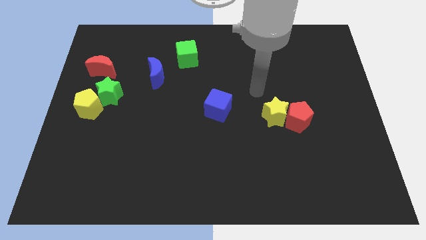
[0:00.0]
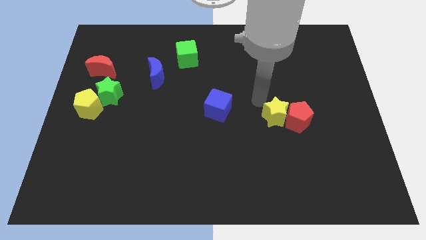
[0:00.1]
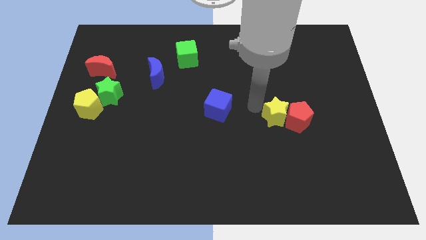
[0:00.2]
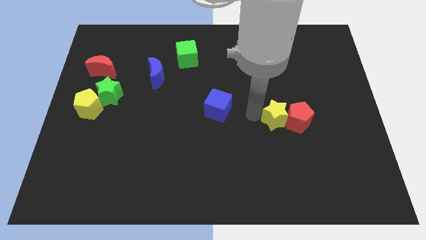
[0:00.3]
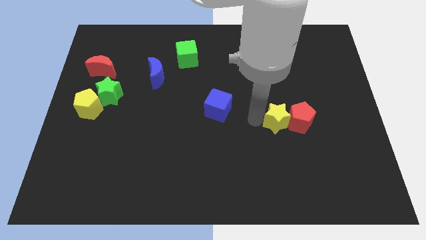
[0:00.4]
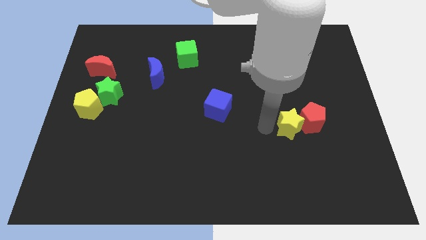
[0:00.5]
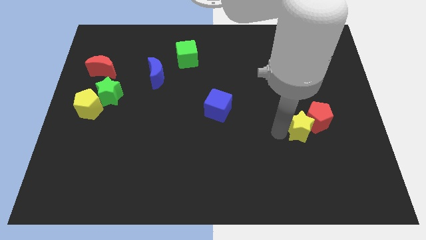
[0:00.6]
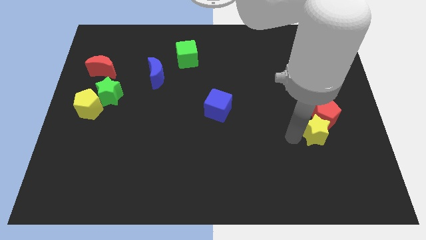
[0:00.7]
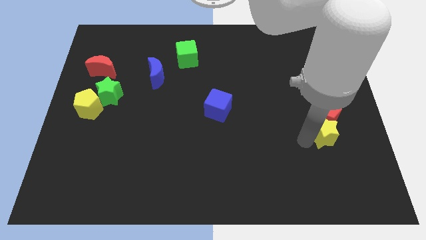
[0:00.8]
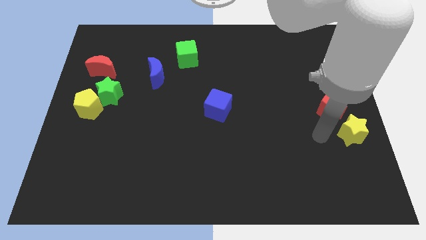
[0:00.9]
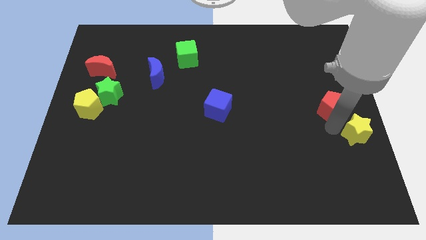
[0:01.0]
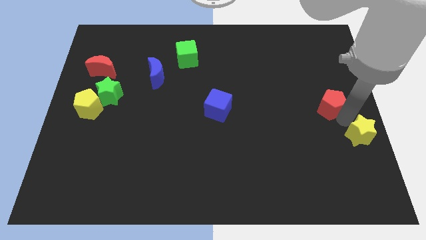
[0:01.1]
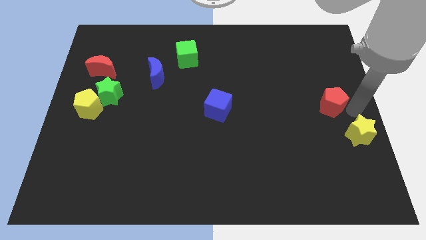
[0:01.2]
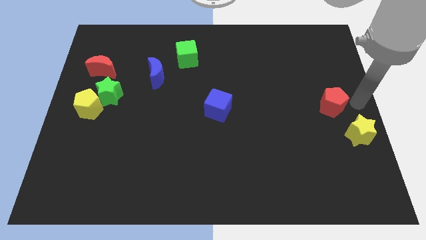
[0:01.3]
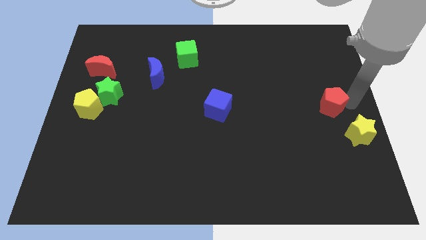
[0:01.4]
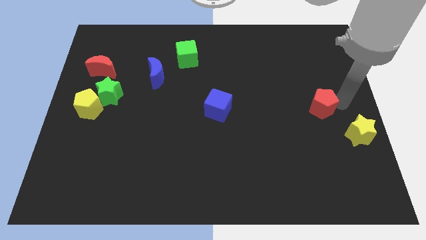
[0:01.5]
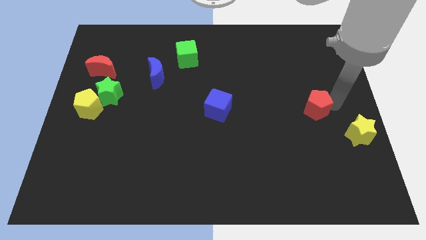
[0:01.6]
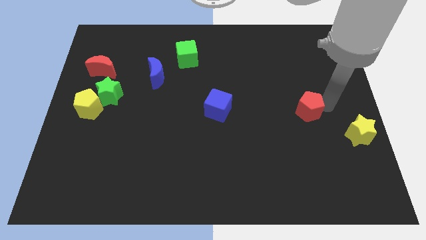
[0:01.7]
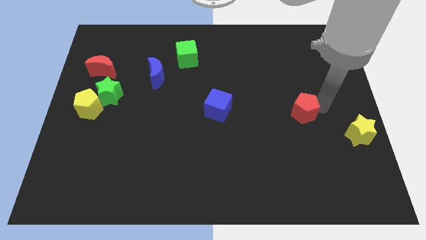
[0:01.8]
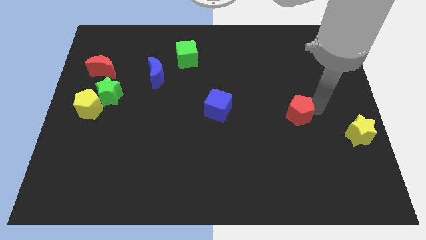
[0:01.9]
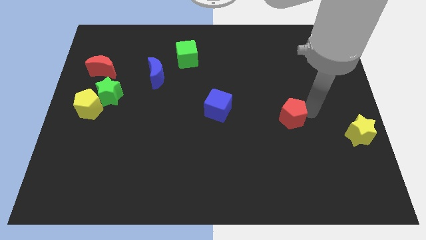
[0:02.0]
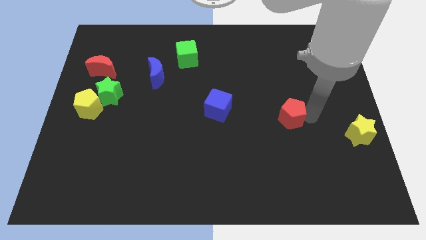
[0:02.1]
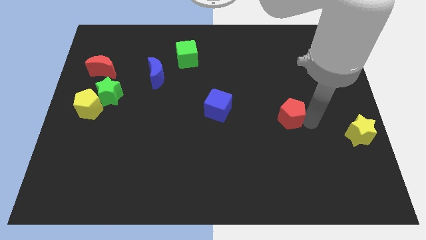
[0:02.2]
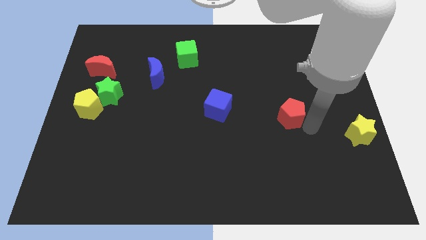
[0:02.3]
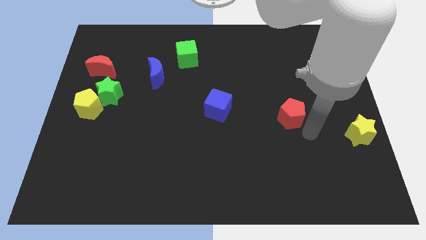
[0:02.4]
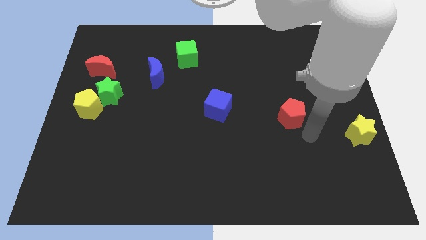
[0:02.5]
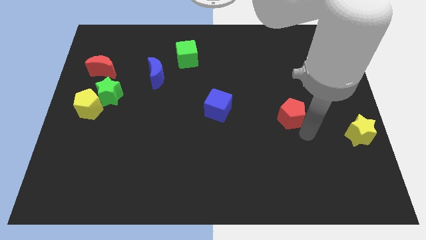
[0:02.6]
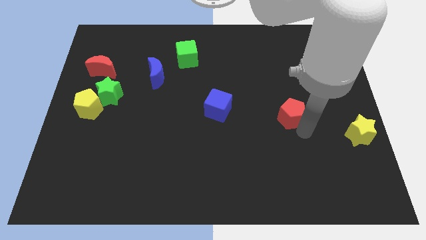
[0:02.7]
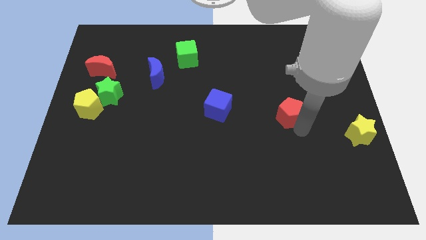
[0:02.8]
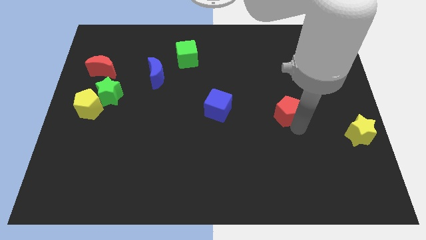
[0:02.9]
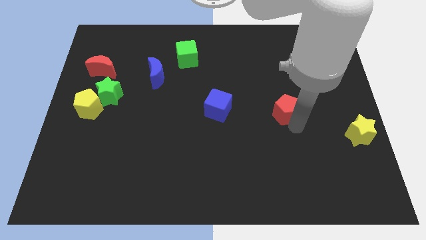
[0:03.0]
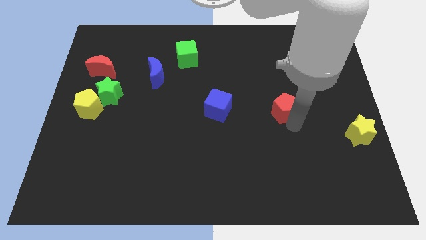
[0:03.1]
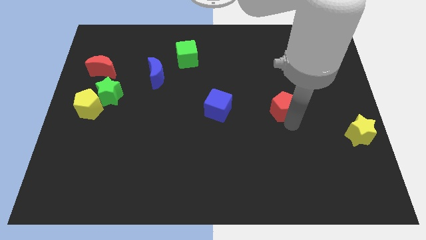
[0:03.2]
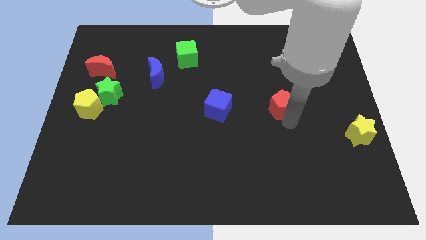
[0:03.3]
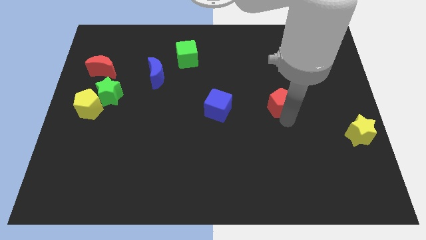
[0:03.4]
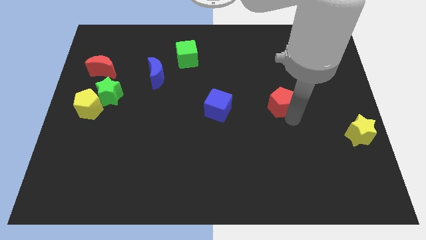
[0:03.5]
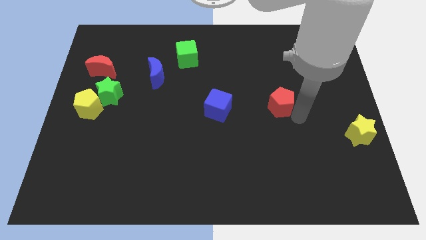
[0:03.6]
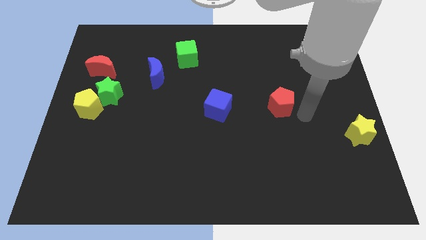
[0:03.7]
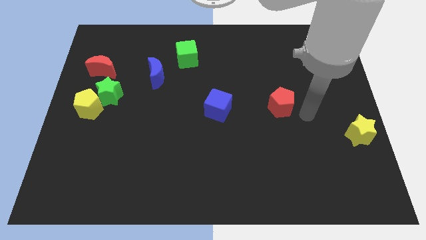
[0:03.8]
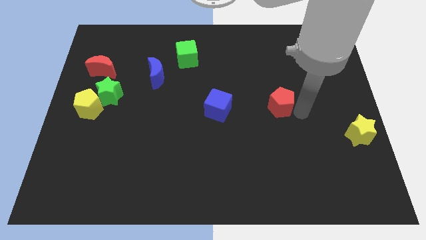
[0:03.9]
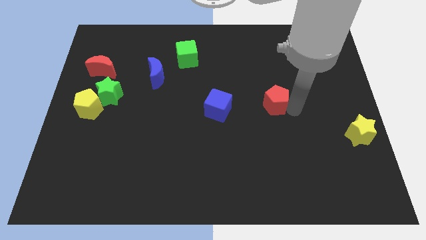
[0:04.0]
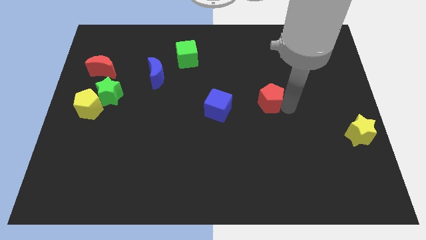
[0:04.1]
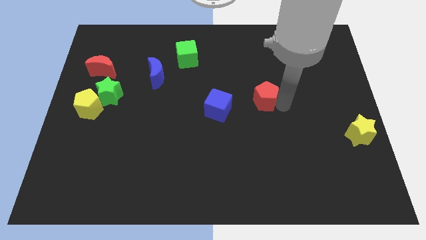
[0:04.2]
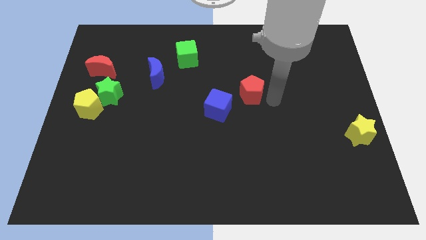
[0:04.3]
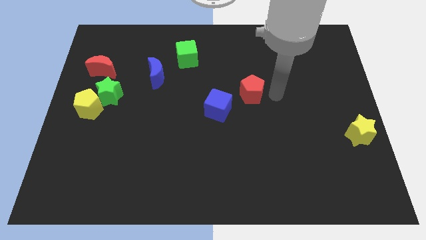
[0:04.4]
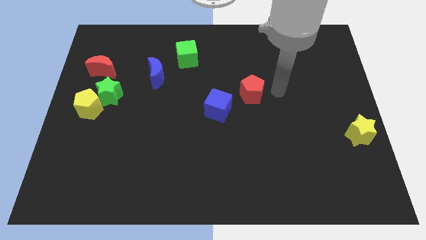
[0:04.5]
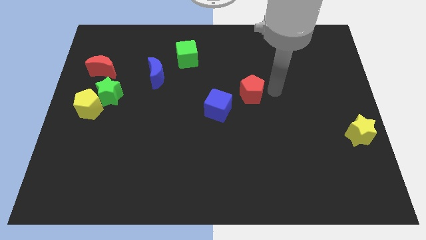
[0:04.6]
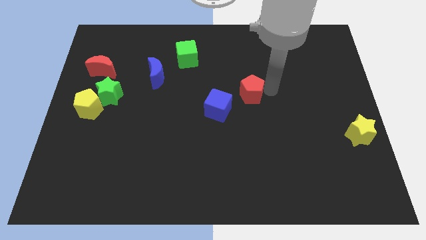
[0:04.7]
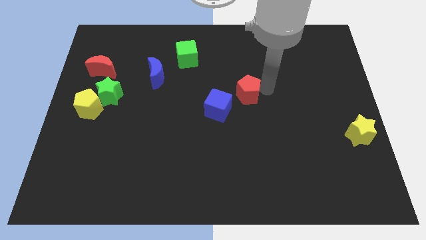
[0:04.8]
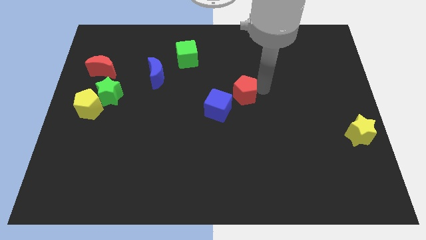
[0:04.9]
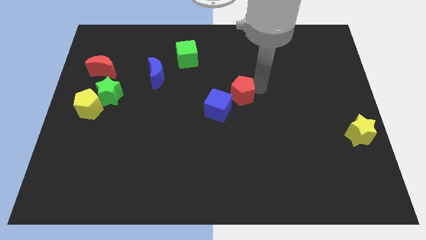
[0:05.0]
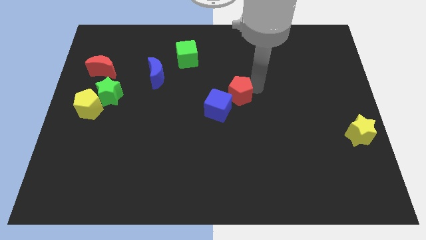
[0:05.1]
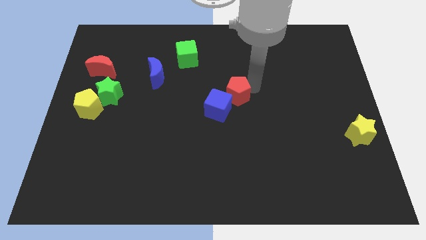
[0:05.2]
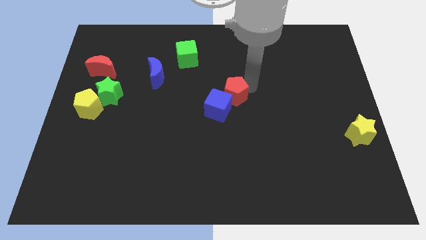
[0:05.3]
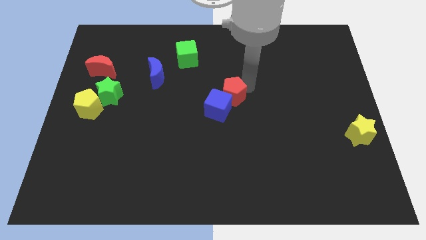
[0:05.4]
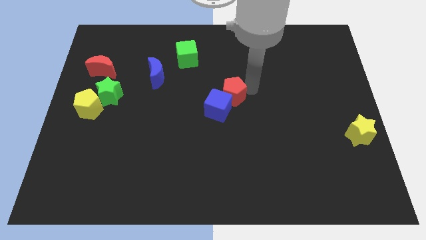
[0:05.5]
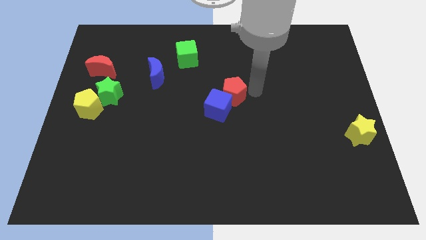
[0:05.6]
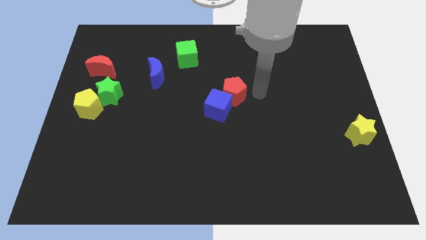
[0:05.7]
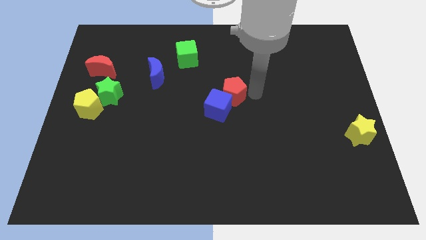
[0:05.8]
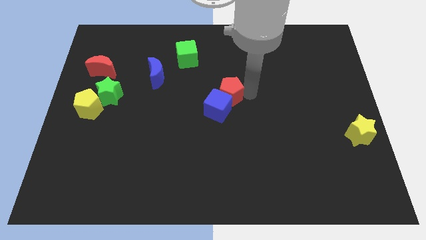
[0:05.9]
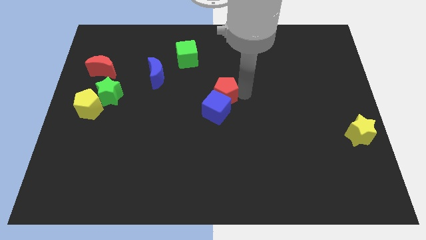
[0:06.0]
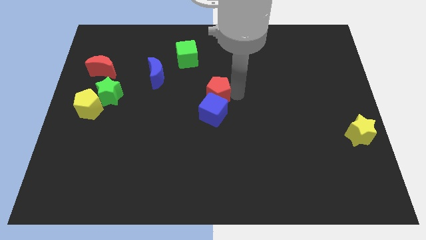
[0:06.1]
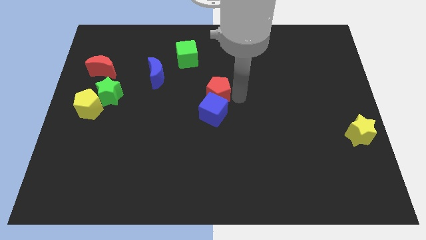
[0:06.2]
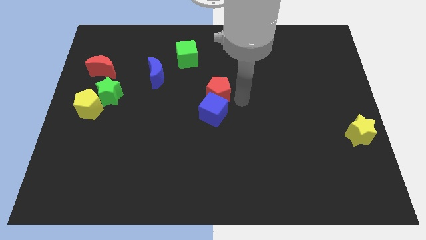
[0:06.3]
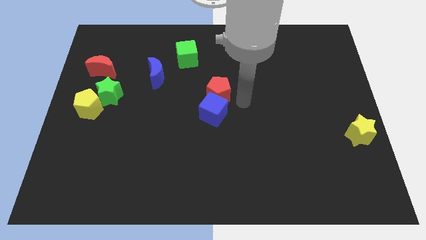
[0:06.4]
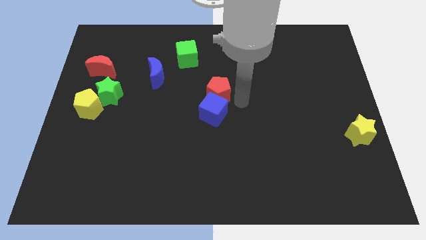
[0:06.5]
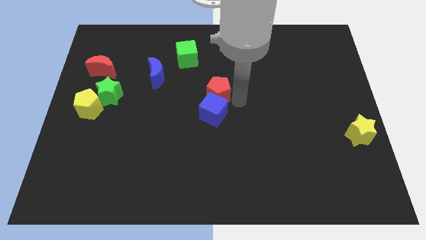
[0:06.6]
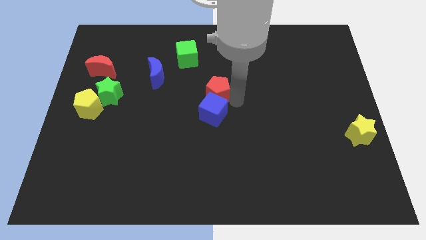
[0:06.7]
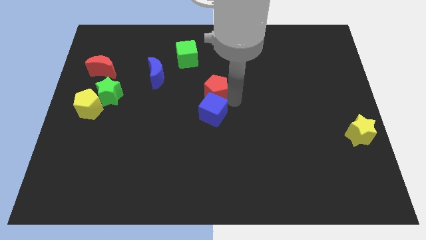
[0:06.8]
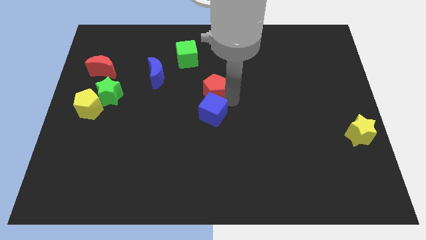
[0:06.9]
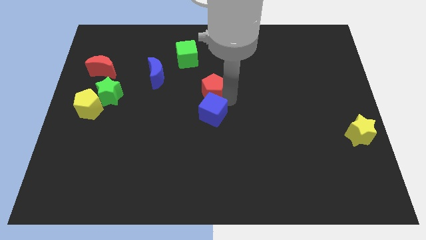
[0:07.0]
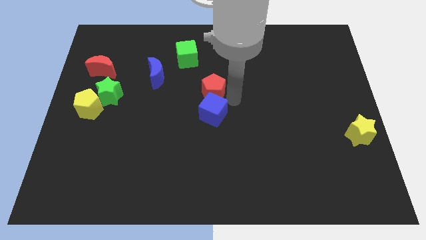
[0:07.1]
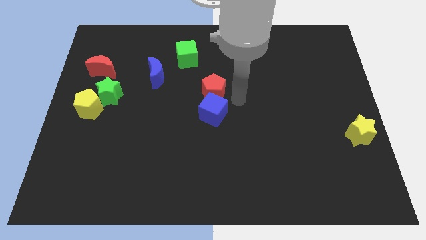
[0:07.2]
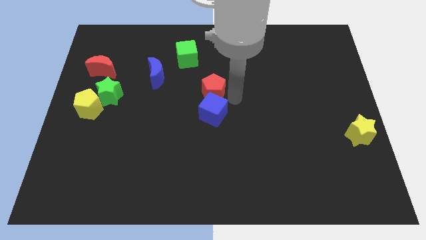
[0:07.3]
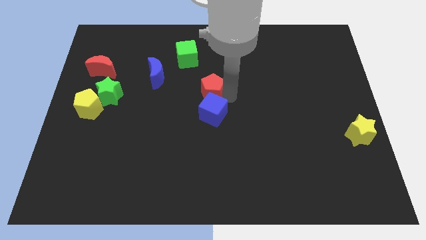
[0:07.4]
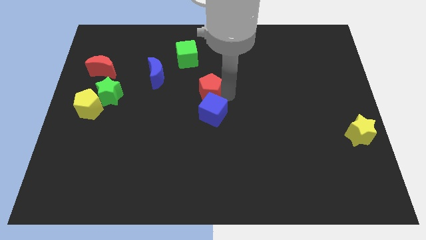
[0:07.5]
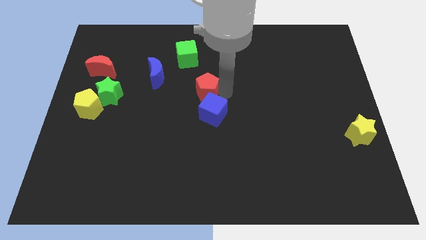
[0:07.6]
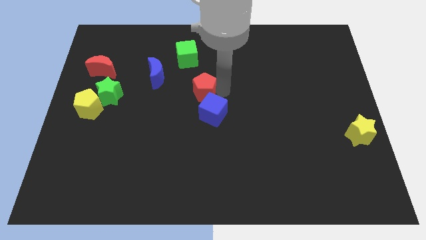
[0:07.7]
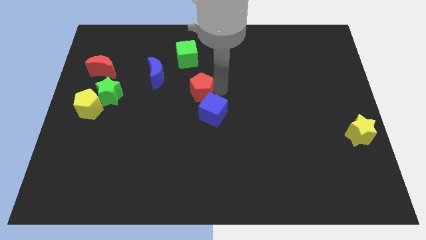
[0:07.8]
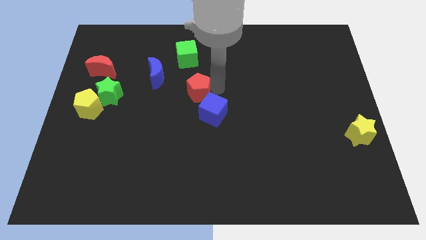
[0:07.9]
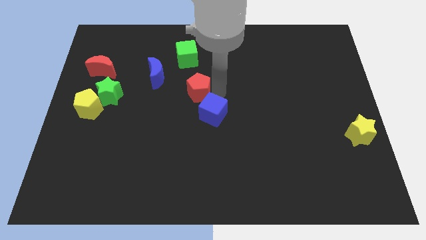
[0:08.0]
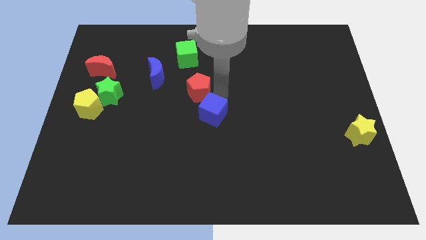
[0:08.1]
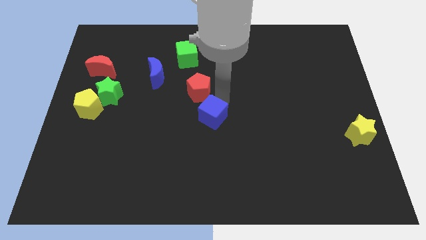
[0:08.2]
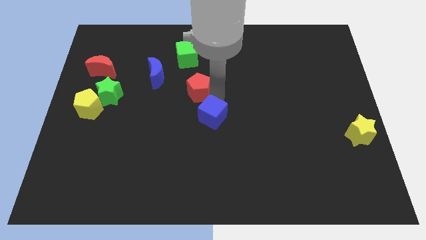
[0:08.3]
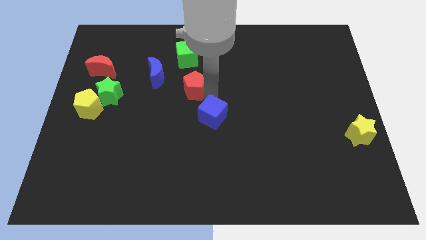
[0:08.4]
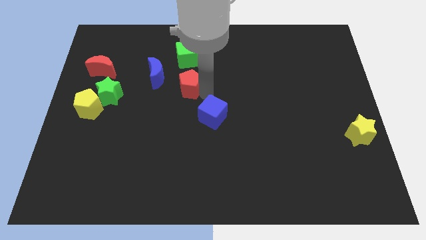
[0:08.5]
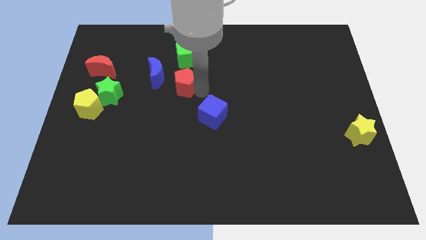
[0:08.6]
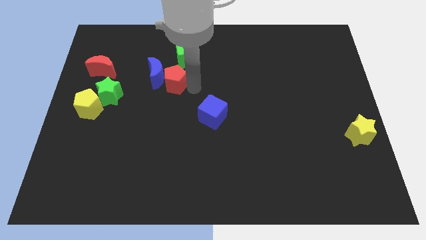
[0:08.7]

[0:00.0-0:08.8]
move the red pentagon to the blue moon
